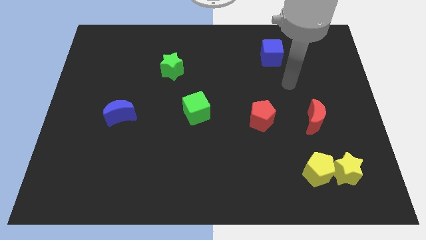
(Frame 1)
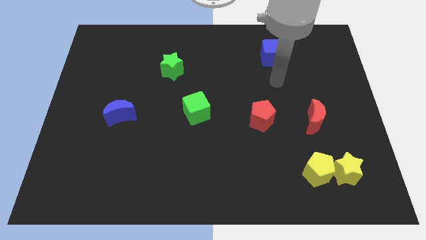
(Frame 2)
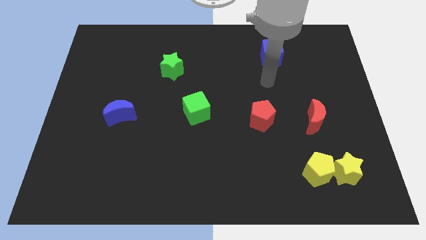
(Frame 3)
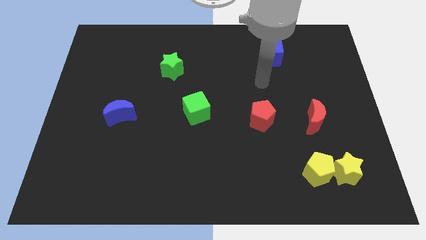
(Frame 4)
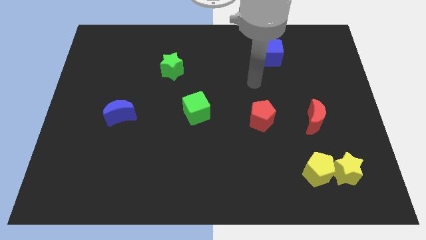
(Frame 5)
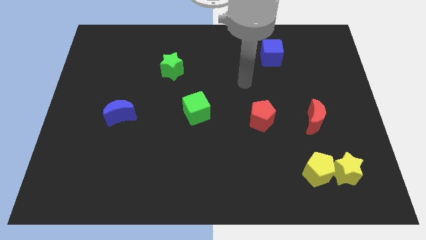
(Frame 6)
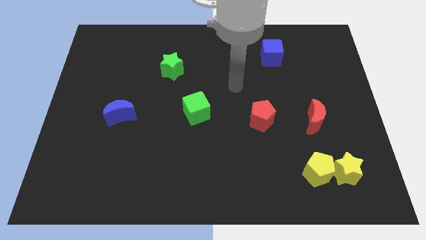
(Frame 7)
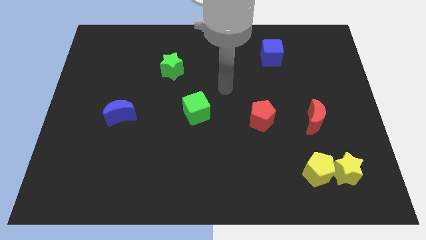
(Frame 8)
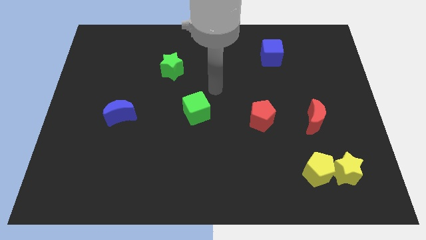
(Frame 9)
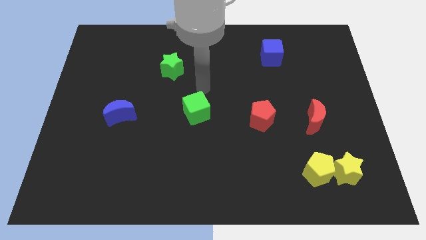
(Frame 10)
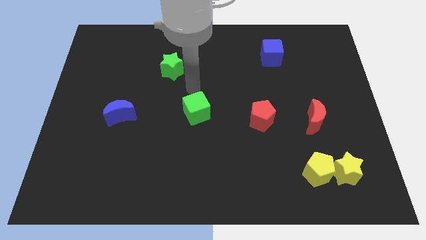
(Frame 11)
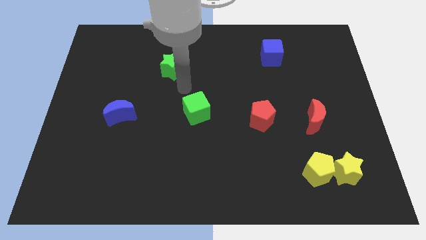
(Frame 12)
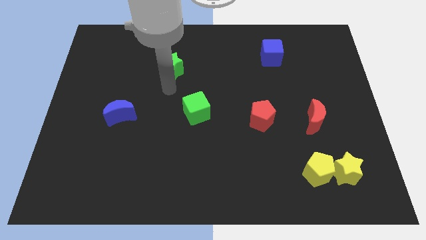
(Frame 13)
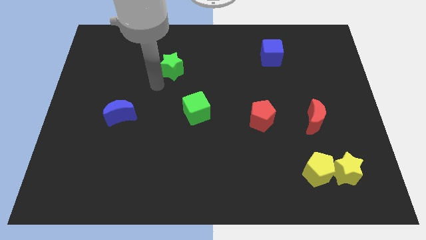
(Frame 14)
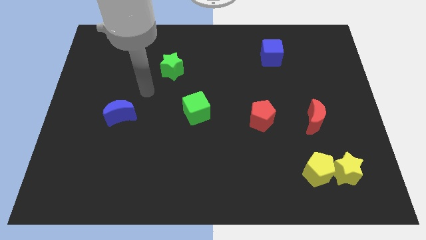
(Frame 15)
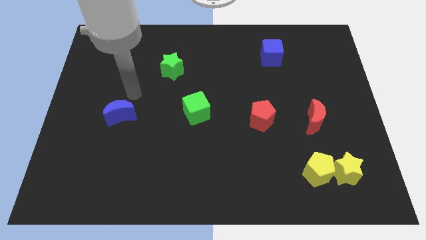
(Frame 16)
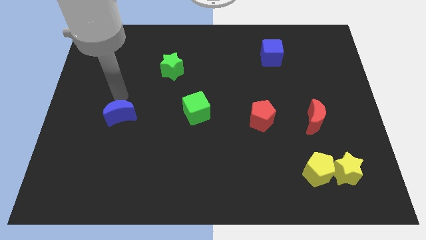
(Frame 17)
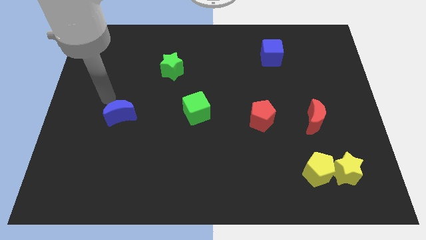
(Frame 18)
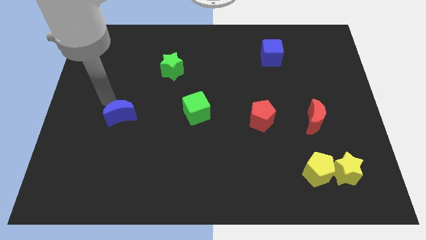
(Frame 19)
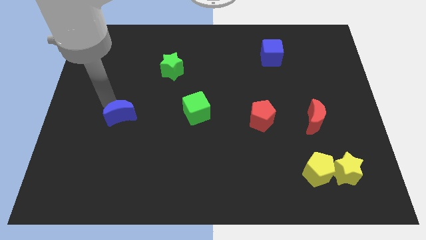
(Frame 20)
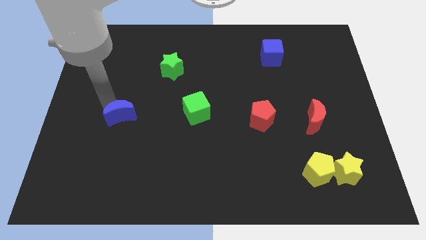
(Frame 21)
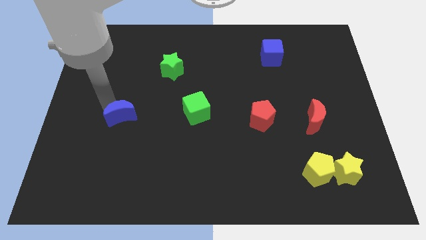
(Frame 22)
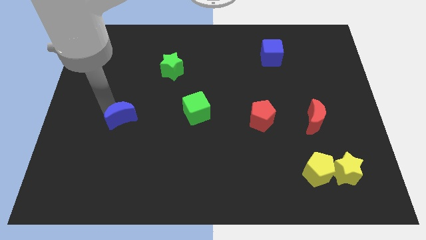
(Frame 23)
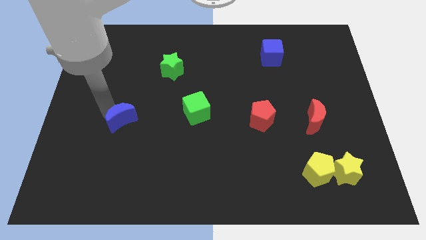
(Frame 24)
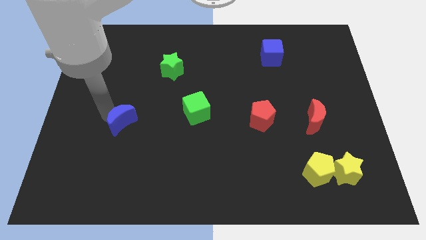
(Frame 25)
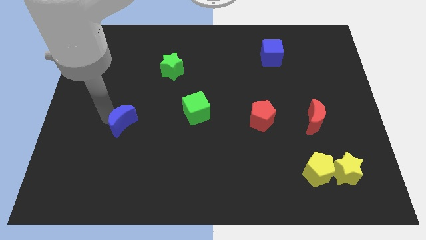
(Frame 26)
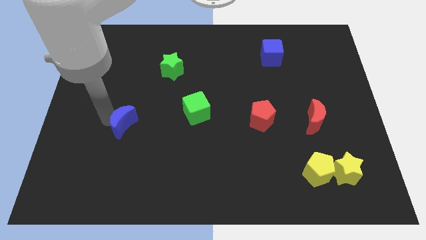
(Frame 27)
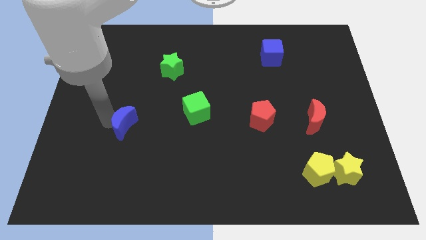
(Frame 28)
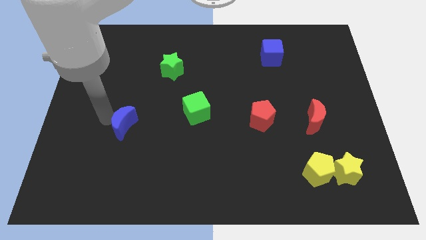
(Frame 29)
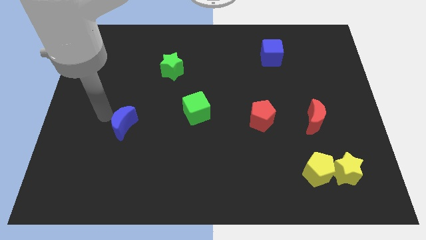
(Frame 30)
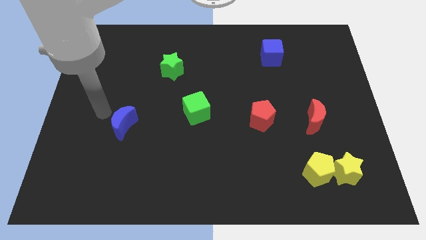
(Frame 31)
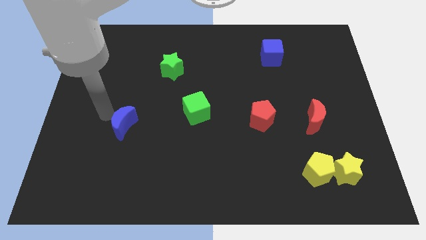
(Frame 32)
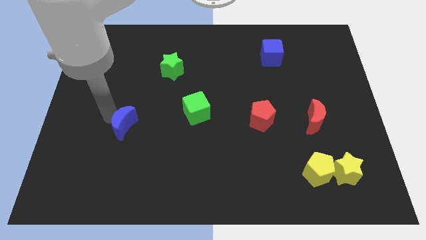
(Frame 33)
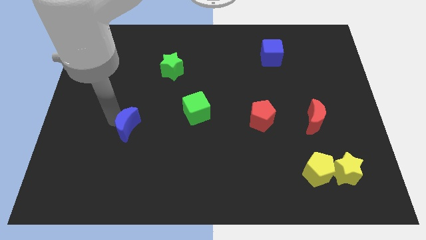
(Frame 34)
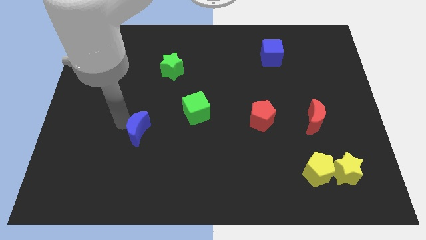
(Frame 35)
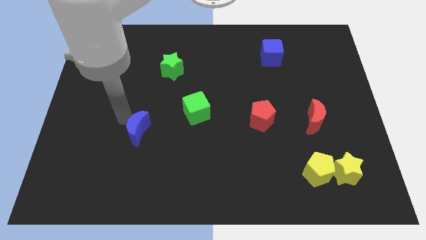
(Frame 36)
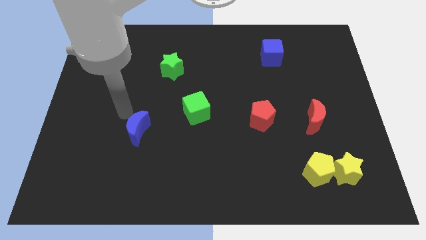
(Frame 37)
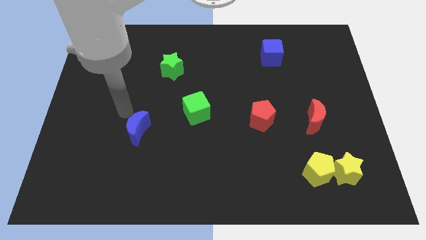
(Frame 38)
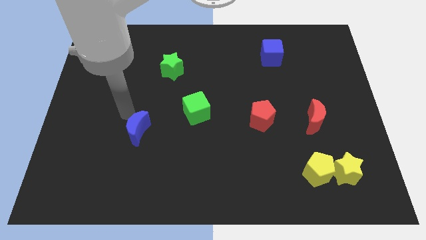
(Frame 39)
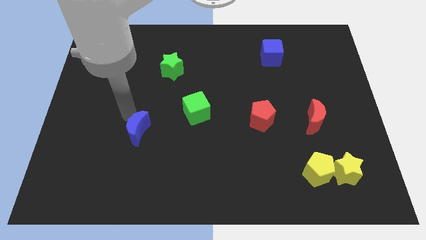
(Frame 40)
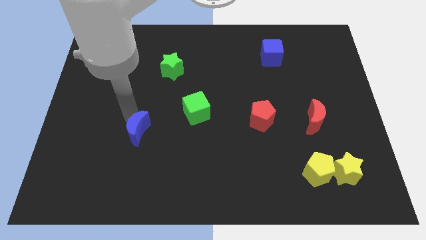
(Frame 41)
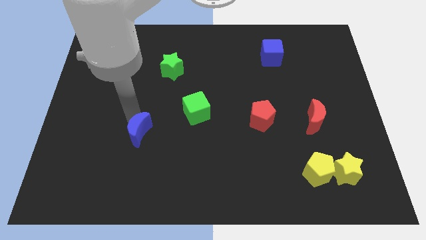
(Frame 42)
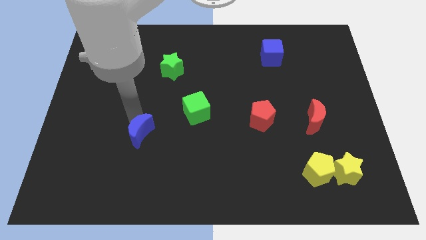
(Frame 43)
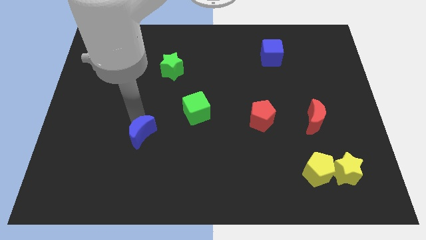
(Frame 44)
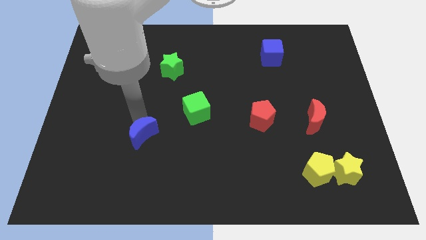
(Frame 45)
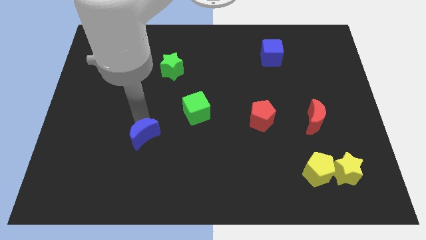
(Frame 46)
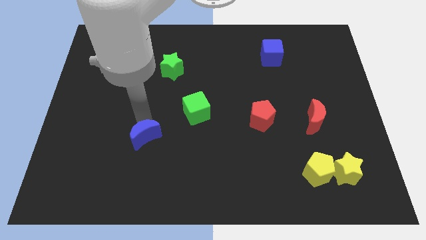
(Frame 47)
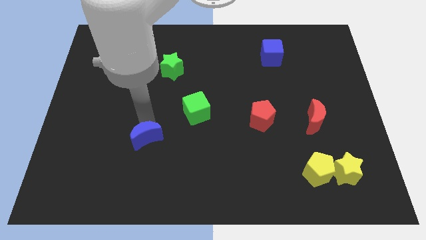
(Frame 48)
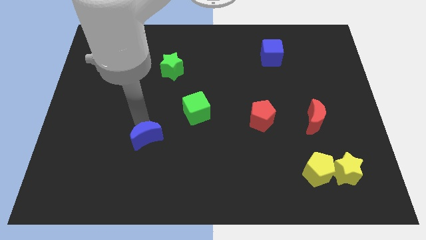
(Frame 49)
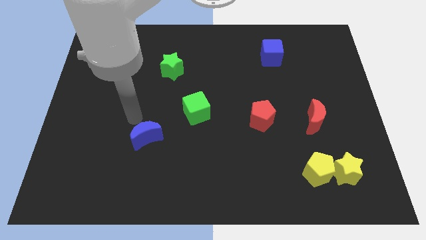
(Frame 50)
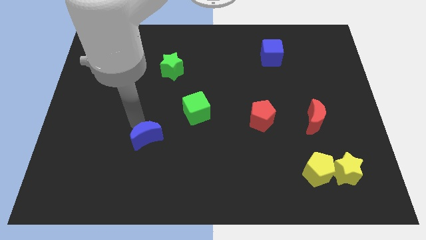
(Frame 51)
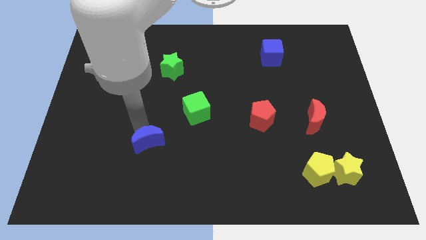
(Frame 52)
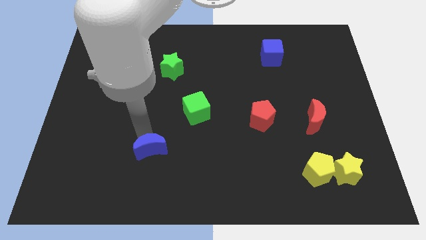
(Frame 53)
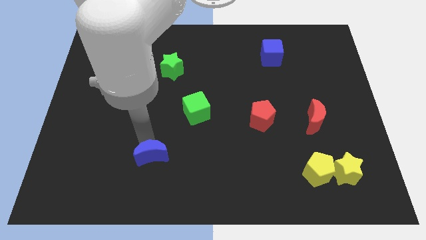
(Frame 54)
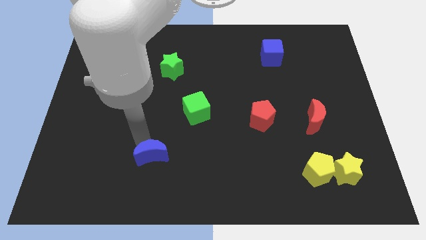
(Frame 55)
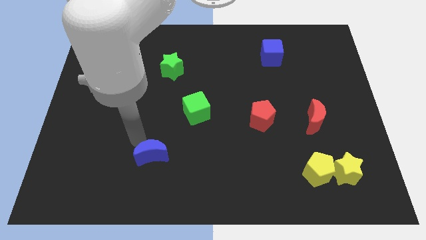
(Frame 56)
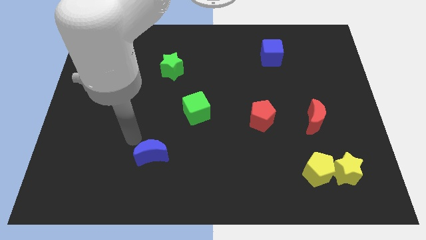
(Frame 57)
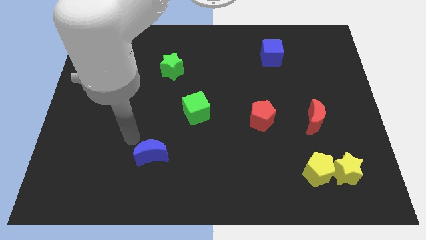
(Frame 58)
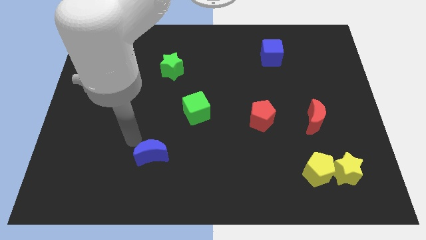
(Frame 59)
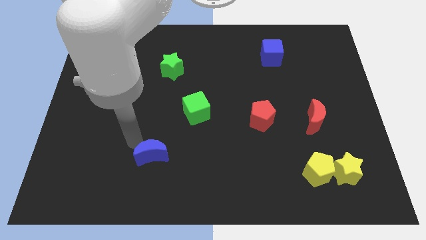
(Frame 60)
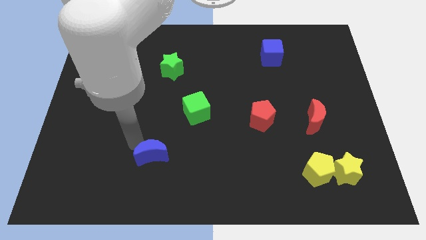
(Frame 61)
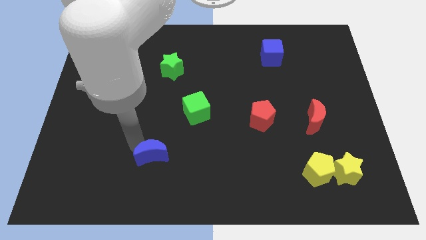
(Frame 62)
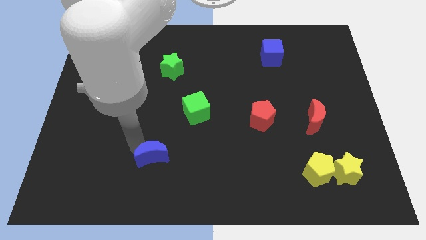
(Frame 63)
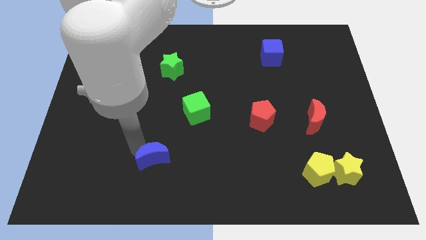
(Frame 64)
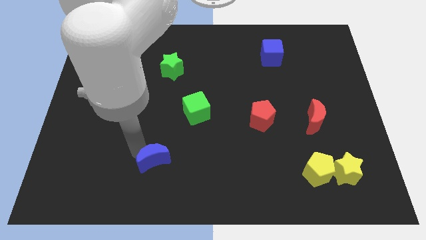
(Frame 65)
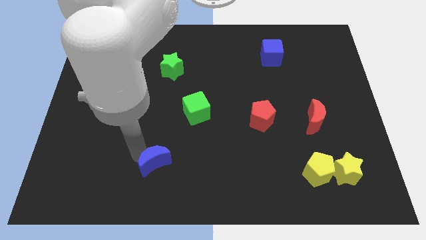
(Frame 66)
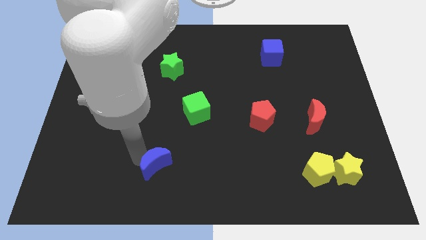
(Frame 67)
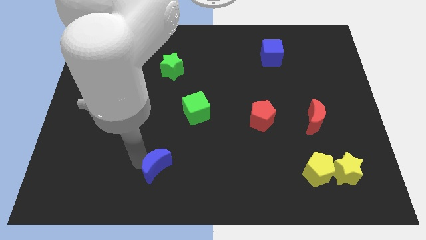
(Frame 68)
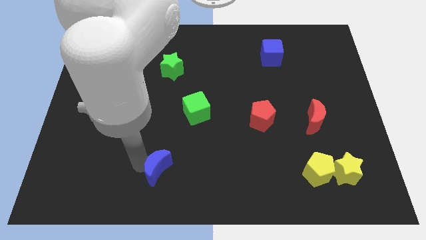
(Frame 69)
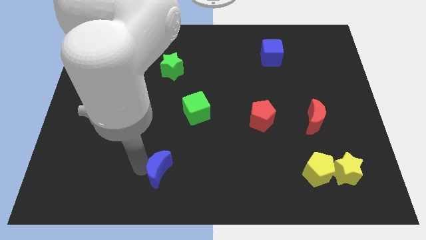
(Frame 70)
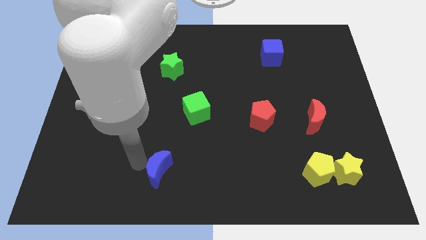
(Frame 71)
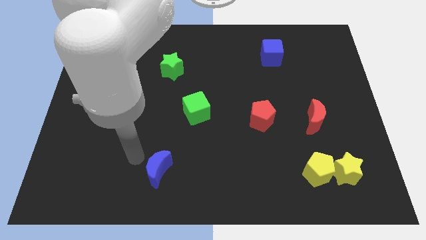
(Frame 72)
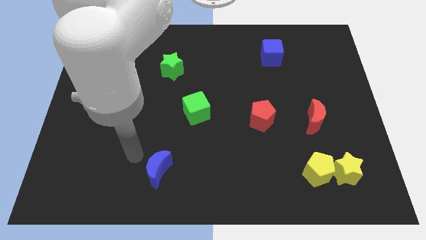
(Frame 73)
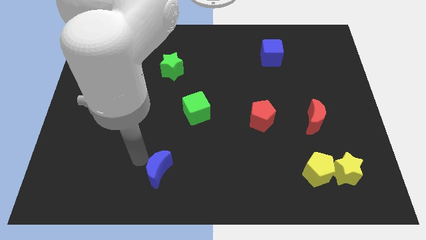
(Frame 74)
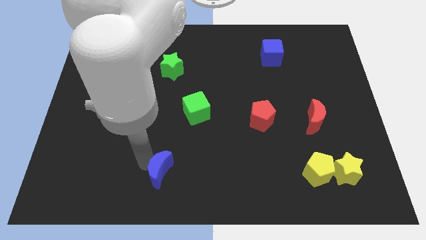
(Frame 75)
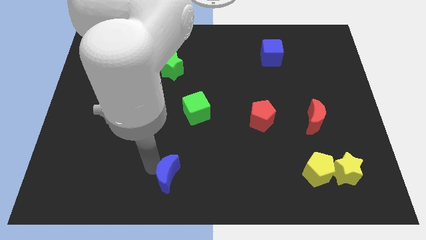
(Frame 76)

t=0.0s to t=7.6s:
slide the blue moon to the bottom side
